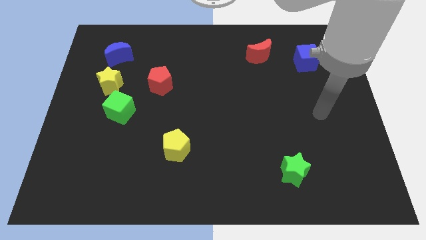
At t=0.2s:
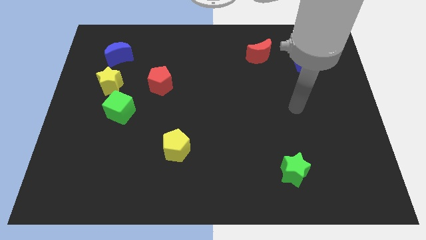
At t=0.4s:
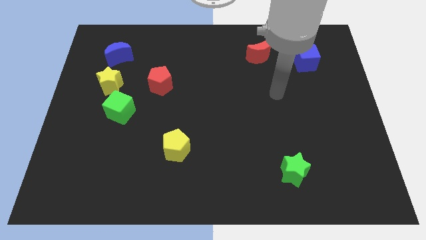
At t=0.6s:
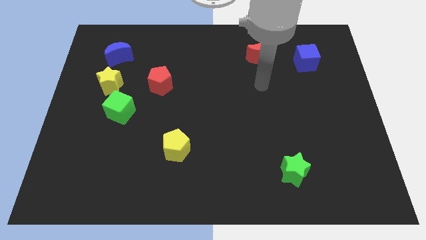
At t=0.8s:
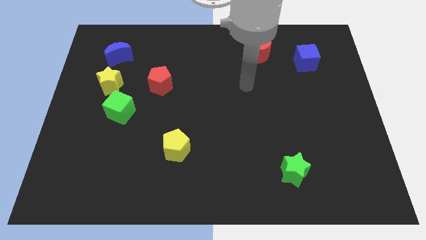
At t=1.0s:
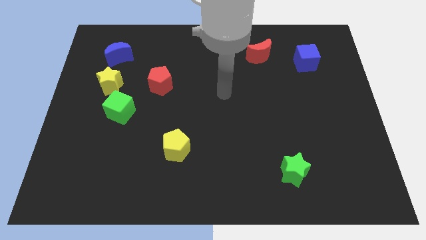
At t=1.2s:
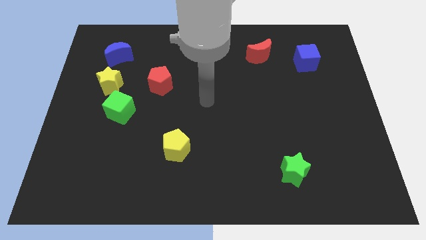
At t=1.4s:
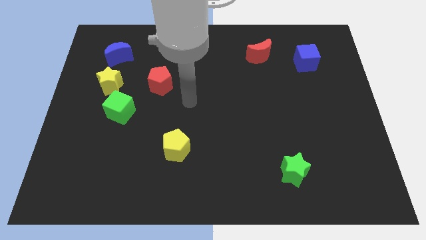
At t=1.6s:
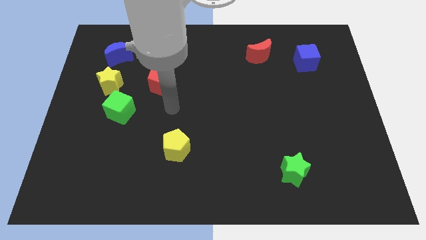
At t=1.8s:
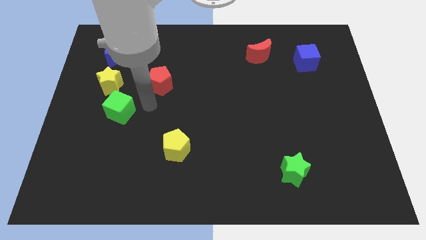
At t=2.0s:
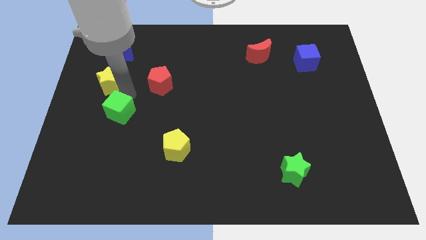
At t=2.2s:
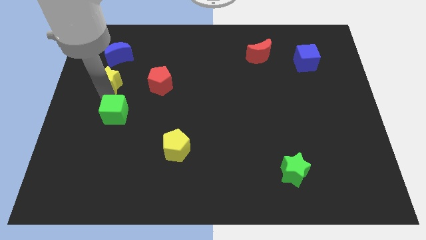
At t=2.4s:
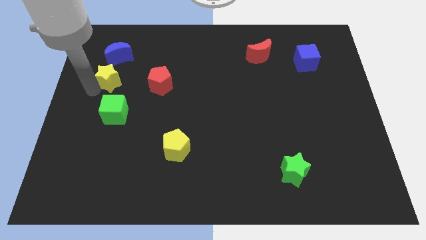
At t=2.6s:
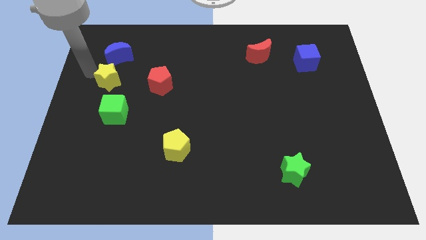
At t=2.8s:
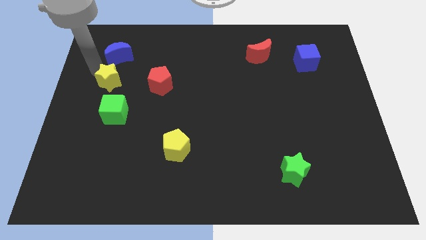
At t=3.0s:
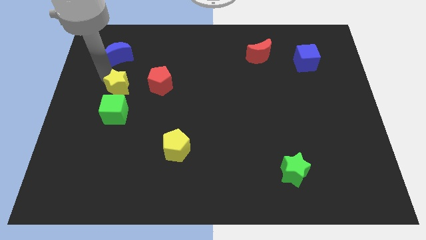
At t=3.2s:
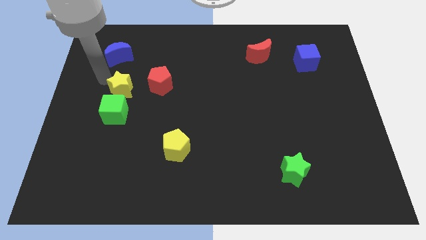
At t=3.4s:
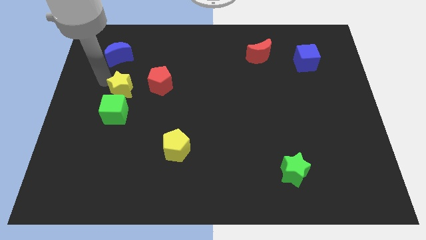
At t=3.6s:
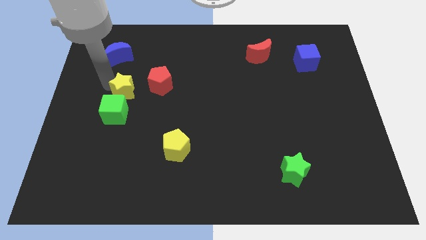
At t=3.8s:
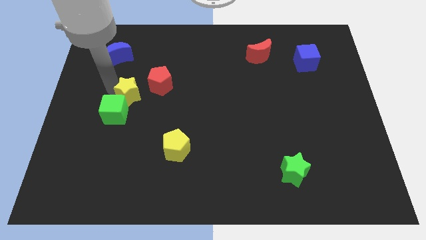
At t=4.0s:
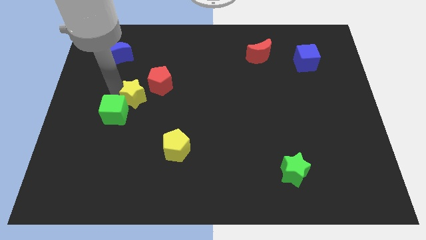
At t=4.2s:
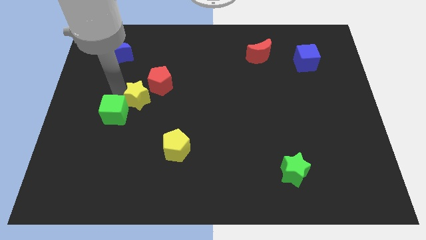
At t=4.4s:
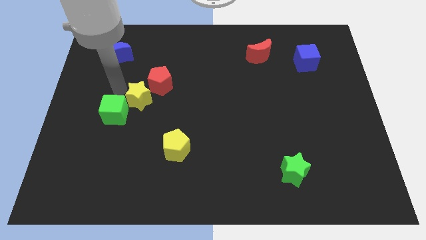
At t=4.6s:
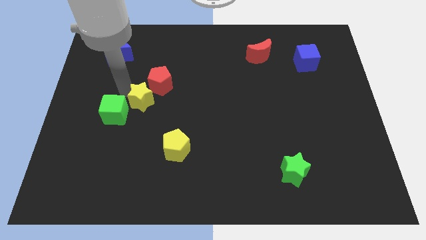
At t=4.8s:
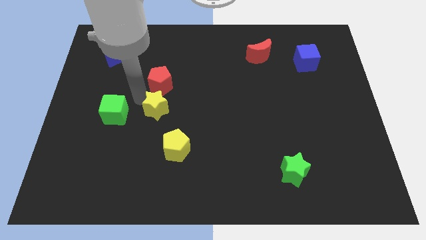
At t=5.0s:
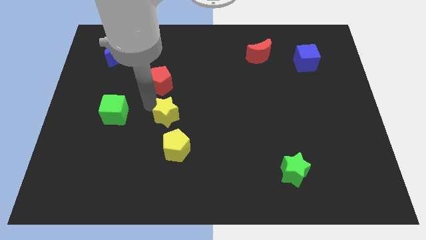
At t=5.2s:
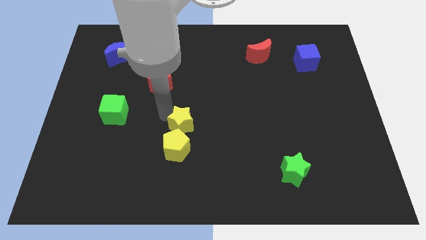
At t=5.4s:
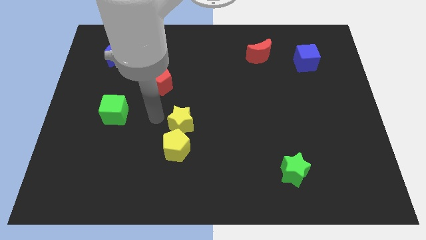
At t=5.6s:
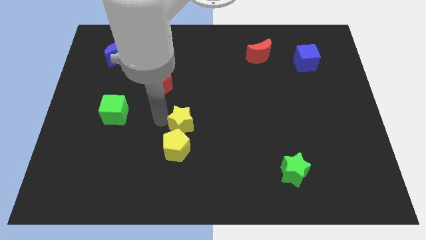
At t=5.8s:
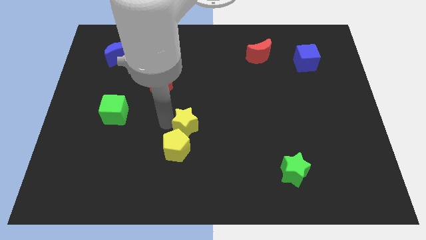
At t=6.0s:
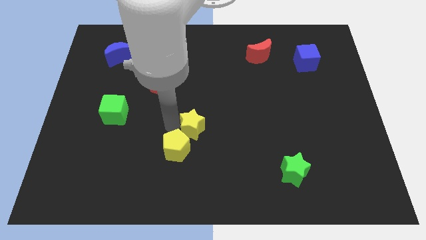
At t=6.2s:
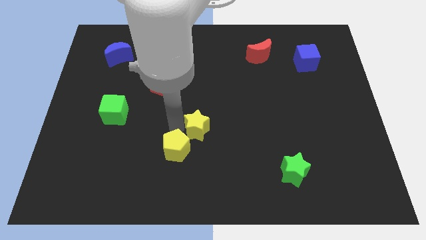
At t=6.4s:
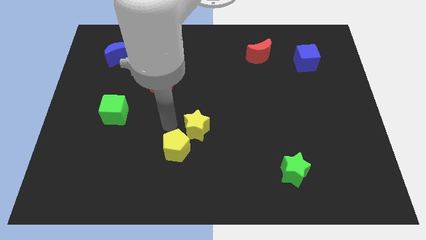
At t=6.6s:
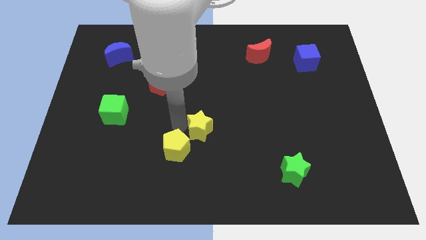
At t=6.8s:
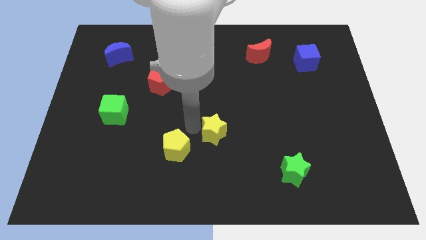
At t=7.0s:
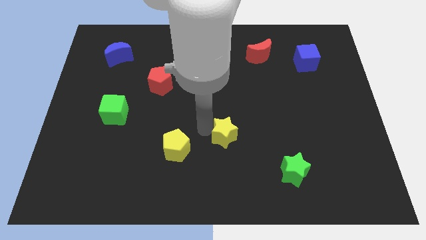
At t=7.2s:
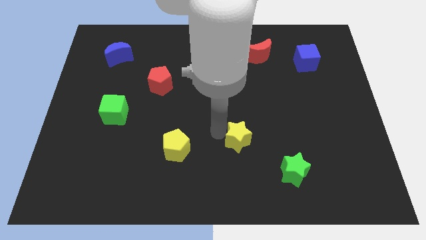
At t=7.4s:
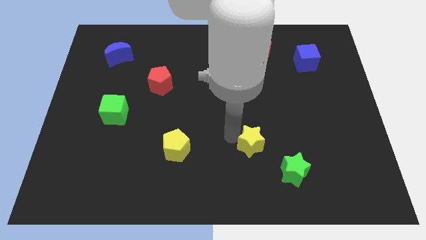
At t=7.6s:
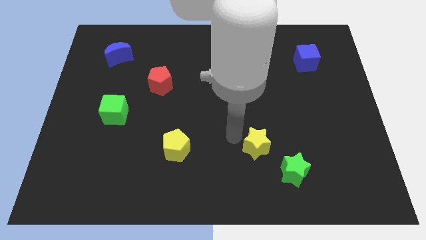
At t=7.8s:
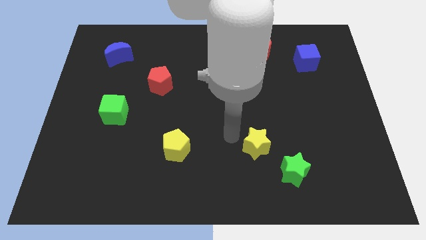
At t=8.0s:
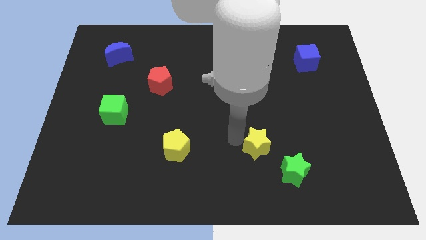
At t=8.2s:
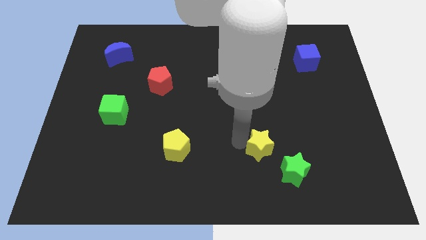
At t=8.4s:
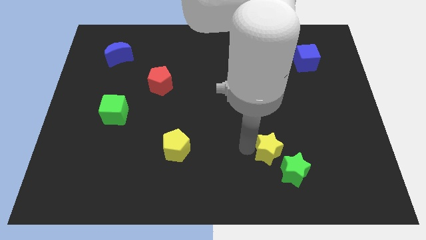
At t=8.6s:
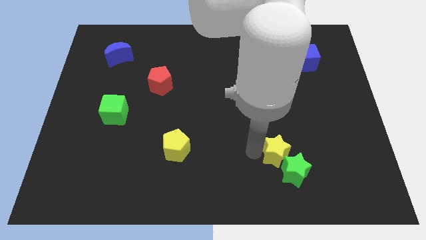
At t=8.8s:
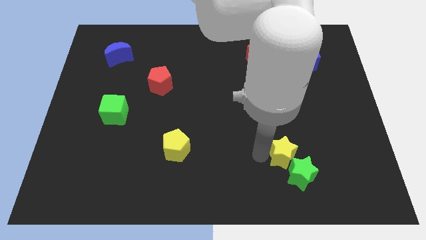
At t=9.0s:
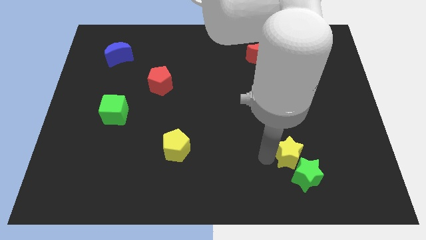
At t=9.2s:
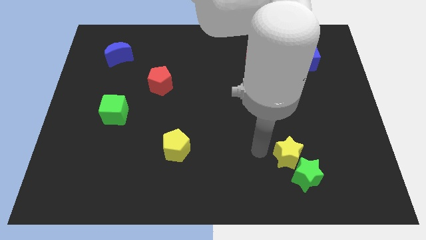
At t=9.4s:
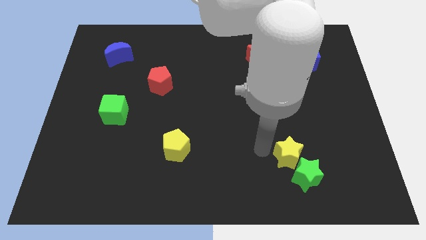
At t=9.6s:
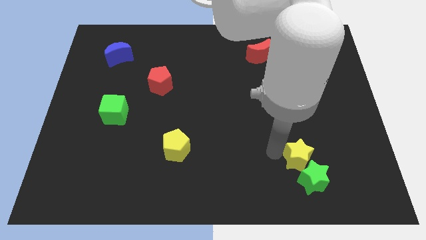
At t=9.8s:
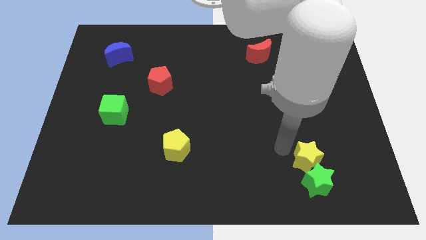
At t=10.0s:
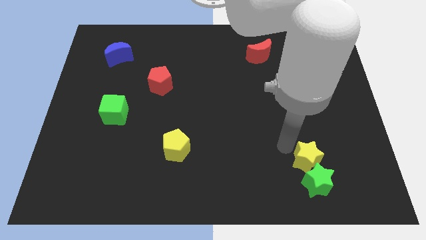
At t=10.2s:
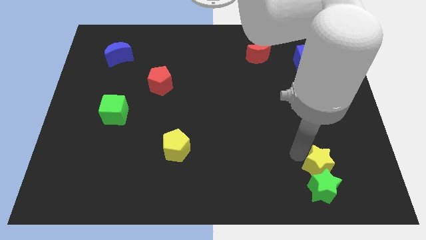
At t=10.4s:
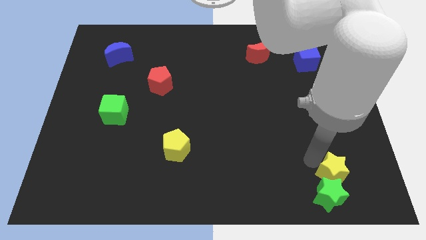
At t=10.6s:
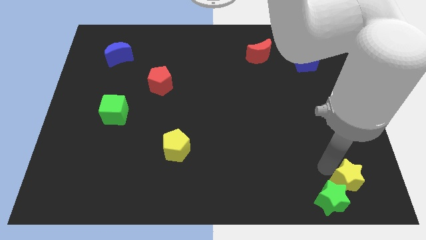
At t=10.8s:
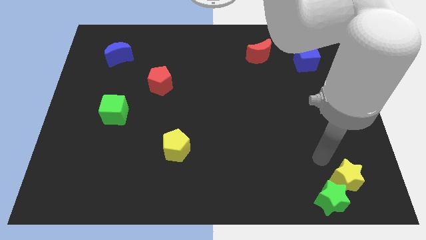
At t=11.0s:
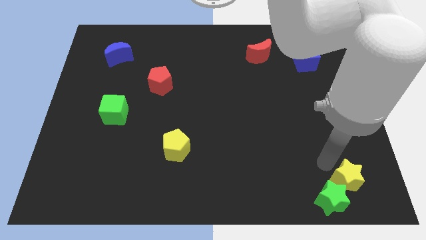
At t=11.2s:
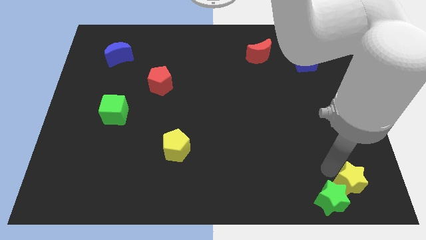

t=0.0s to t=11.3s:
push the yellow star to the bottom right corner
